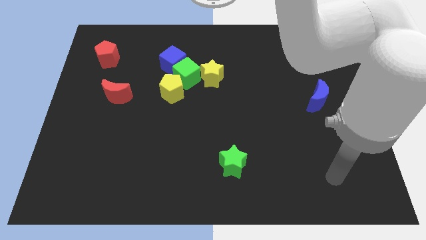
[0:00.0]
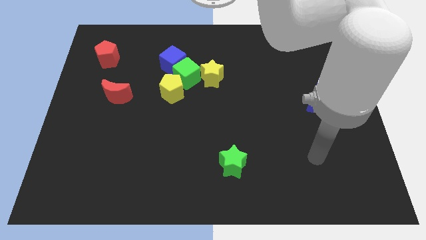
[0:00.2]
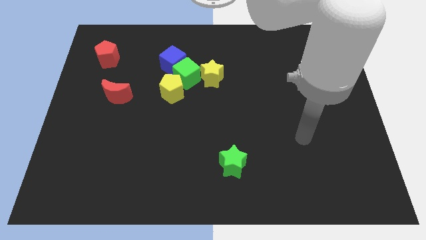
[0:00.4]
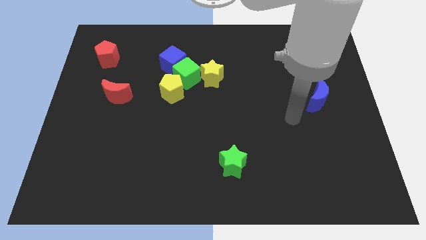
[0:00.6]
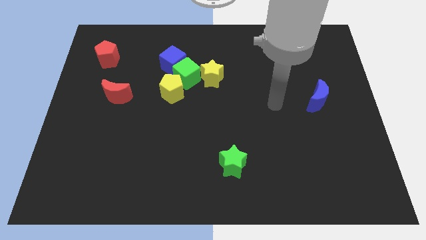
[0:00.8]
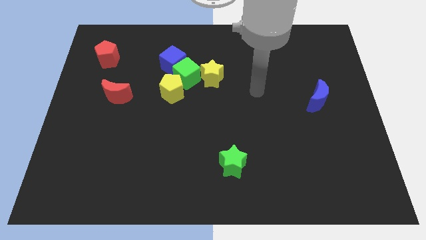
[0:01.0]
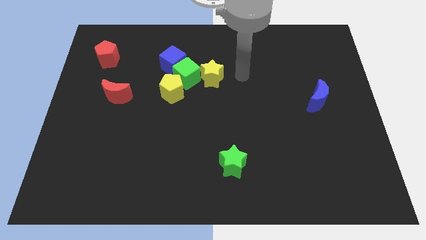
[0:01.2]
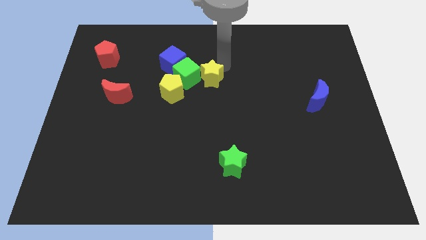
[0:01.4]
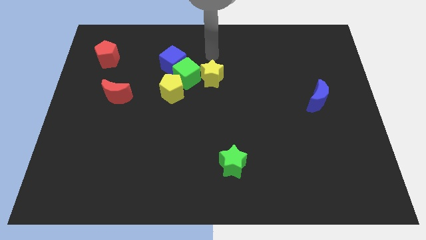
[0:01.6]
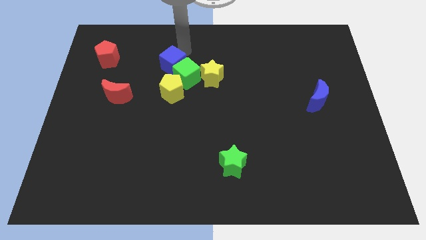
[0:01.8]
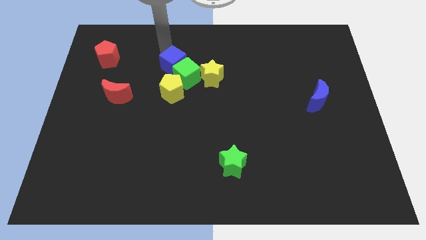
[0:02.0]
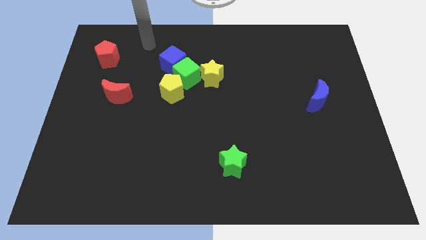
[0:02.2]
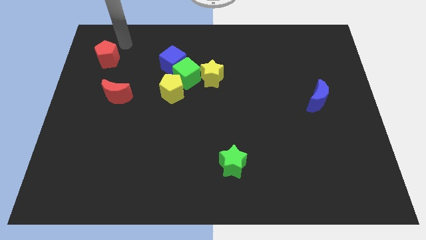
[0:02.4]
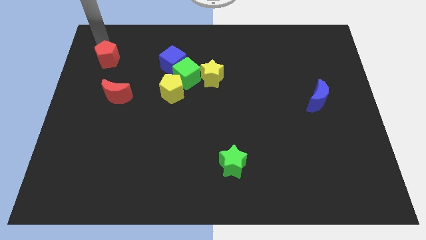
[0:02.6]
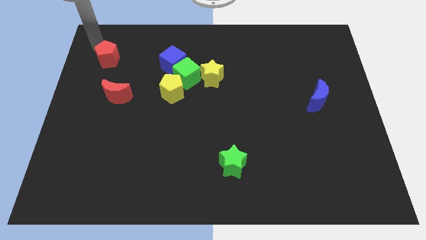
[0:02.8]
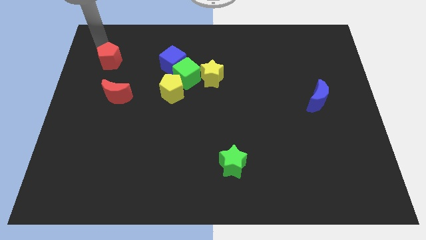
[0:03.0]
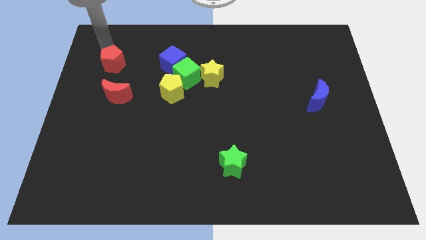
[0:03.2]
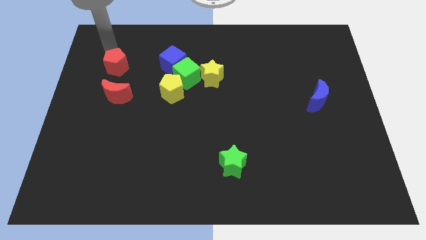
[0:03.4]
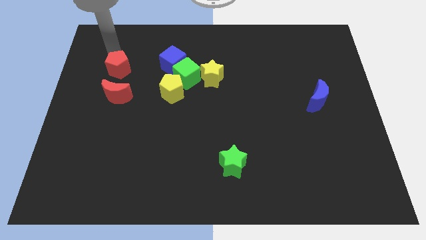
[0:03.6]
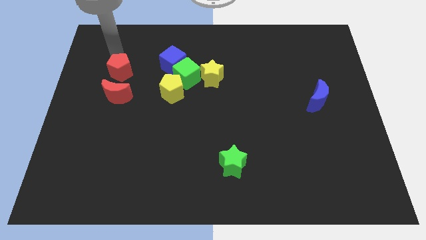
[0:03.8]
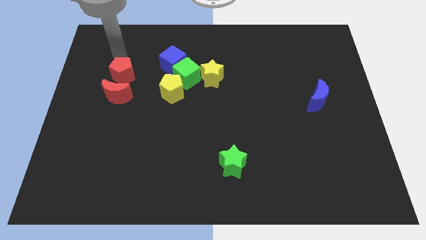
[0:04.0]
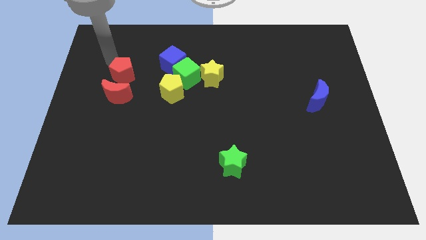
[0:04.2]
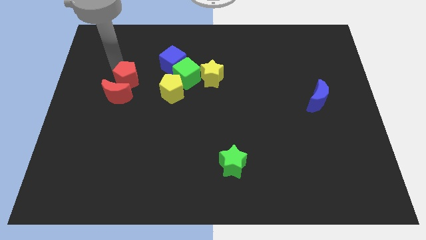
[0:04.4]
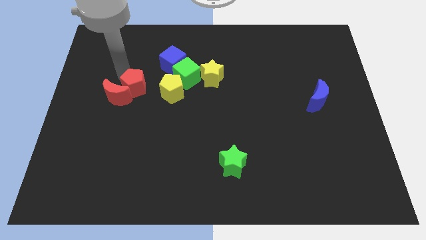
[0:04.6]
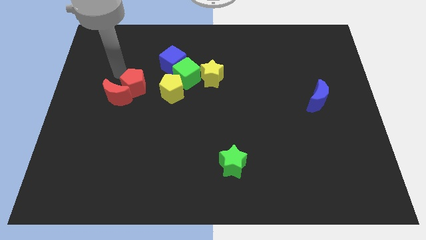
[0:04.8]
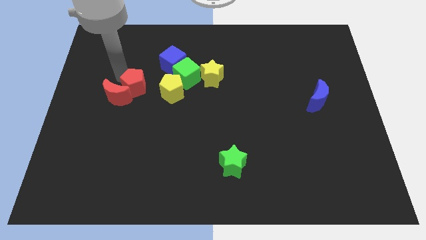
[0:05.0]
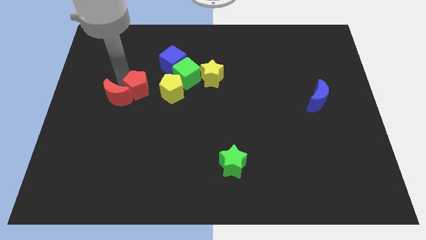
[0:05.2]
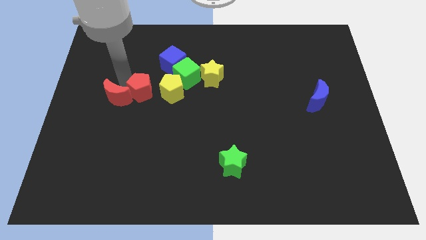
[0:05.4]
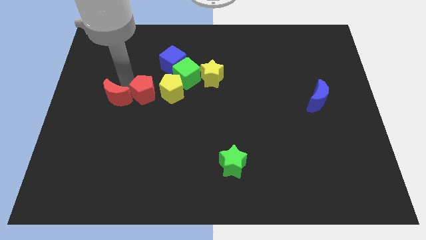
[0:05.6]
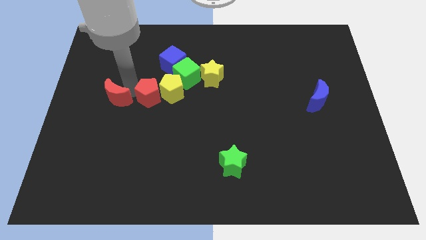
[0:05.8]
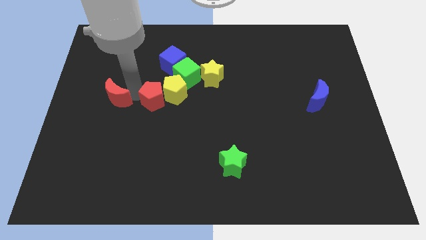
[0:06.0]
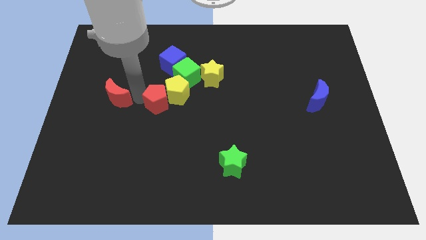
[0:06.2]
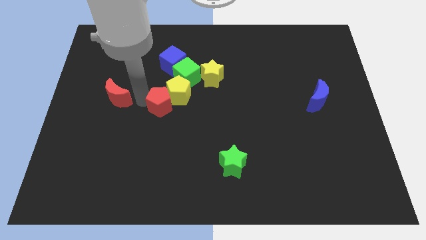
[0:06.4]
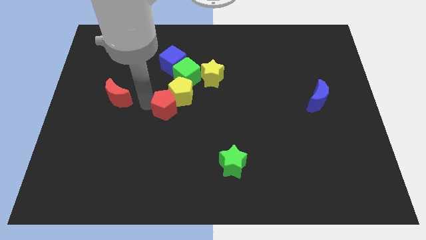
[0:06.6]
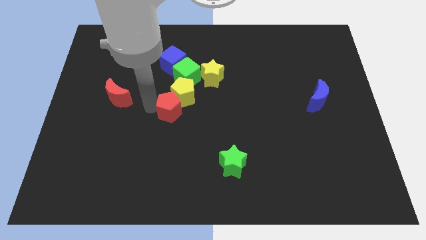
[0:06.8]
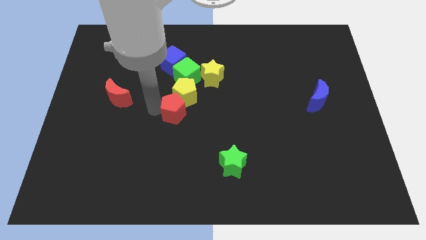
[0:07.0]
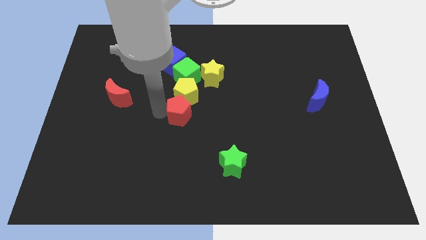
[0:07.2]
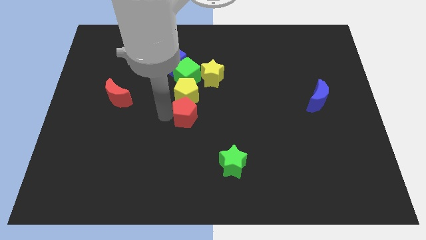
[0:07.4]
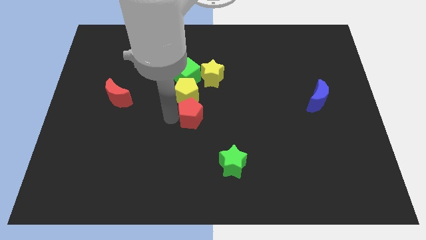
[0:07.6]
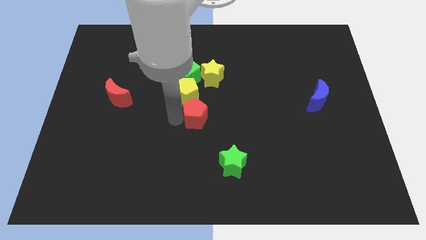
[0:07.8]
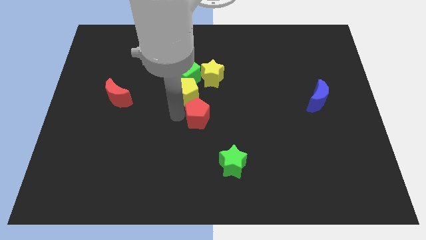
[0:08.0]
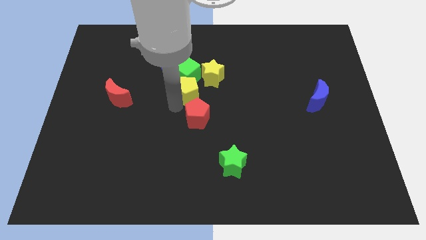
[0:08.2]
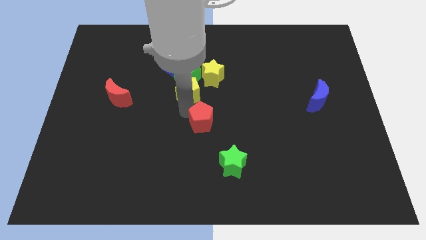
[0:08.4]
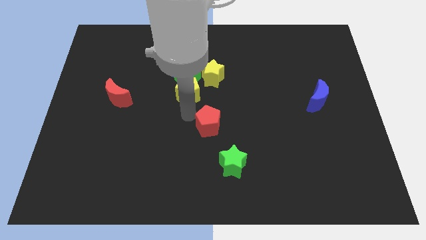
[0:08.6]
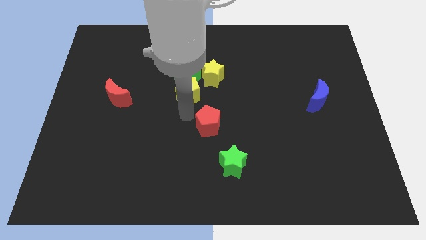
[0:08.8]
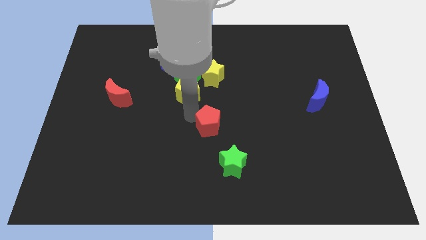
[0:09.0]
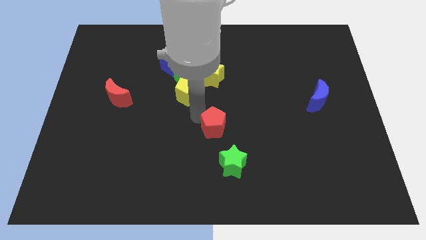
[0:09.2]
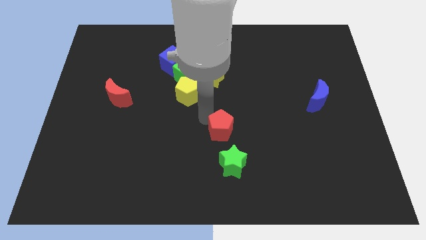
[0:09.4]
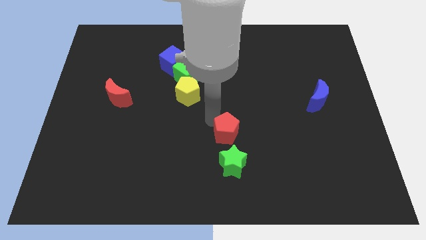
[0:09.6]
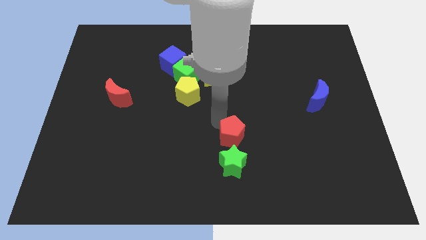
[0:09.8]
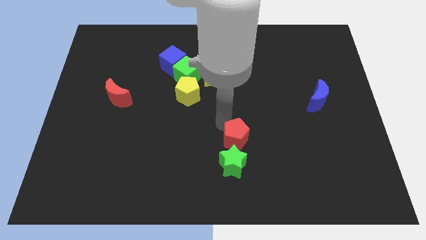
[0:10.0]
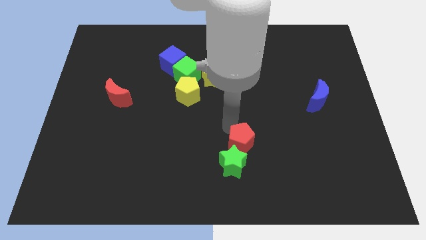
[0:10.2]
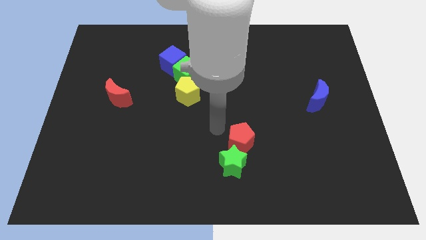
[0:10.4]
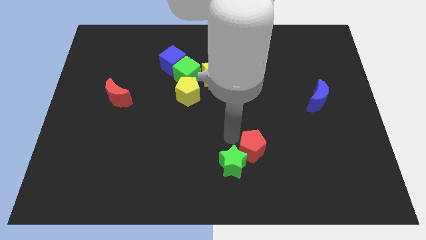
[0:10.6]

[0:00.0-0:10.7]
slide the red pentagon to the right side of the green star

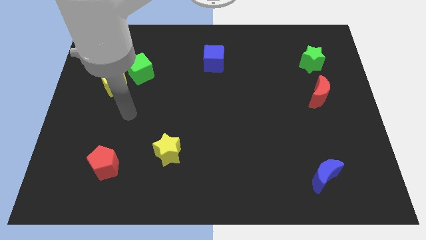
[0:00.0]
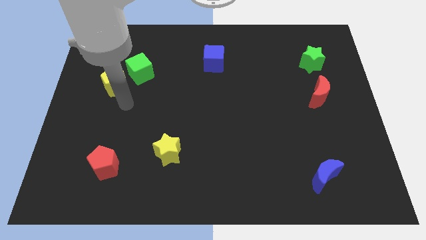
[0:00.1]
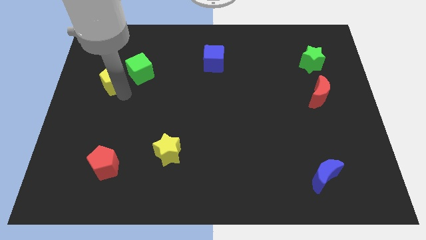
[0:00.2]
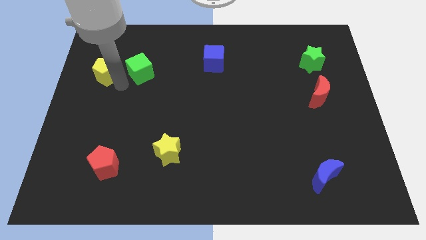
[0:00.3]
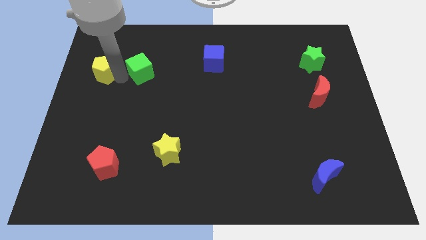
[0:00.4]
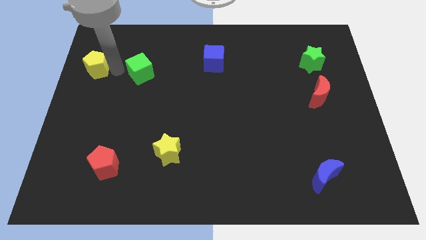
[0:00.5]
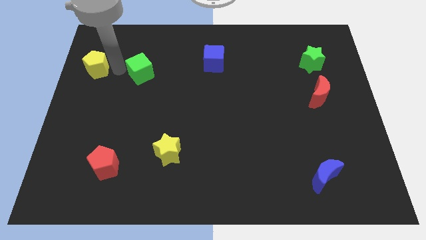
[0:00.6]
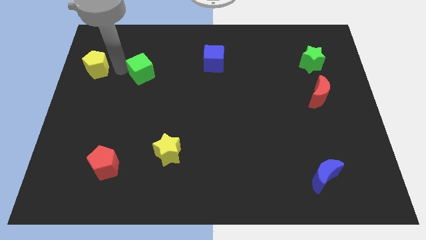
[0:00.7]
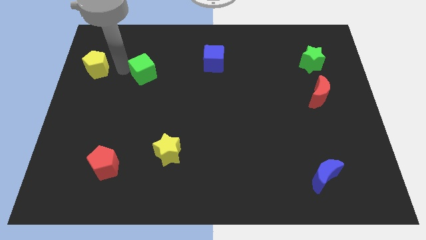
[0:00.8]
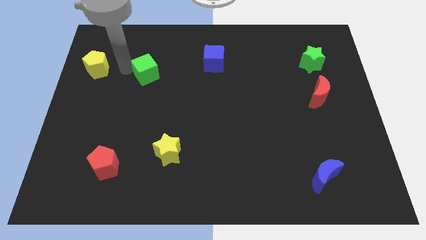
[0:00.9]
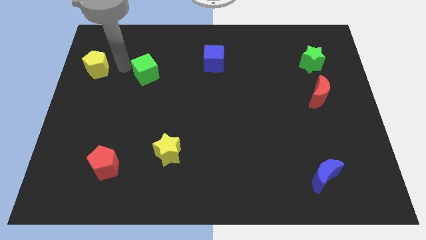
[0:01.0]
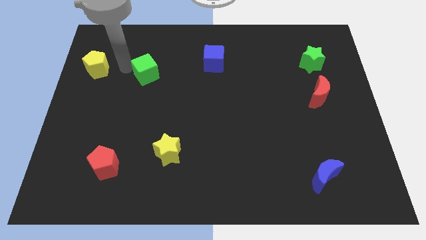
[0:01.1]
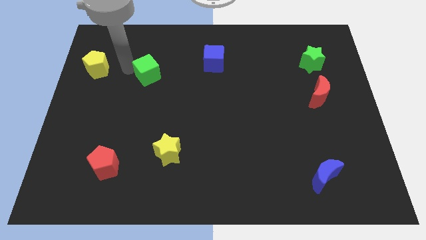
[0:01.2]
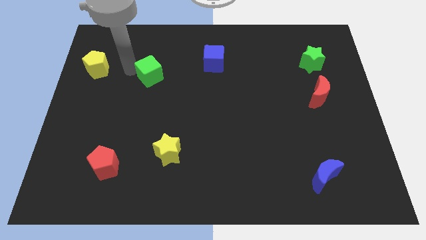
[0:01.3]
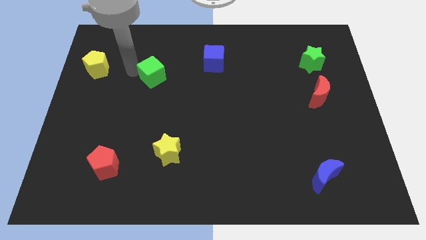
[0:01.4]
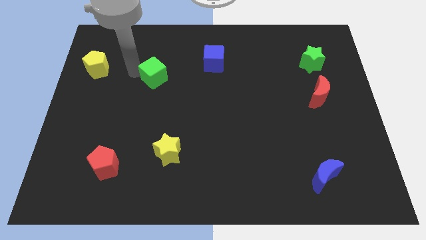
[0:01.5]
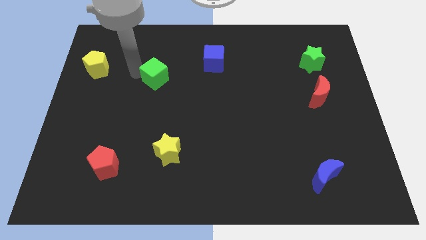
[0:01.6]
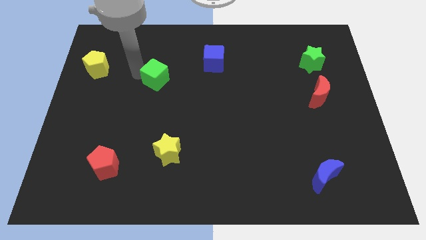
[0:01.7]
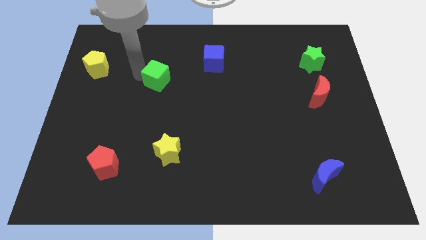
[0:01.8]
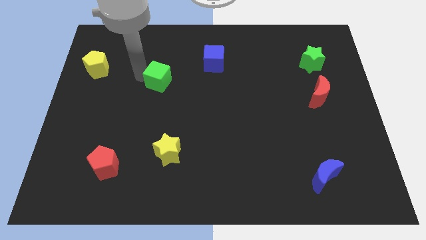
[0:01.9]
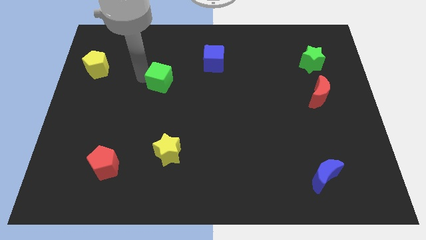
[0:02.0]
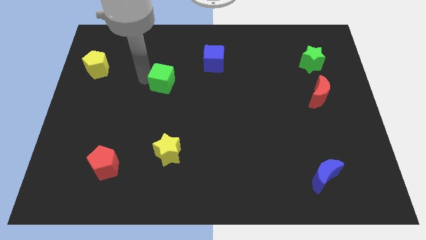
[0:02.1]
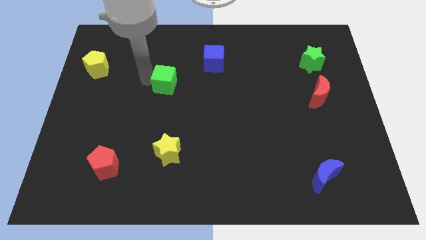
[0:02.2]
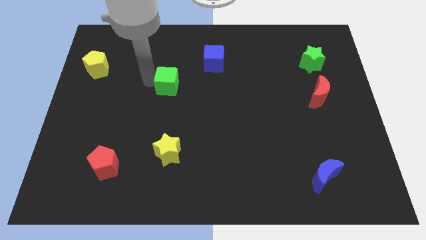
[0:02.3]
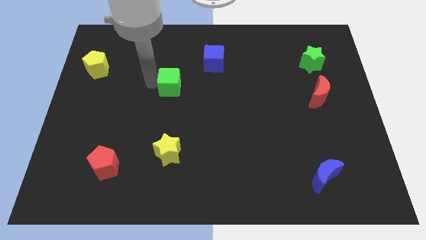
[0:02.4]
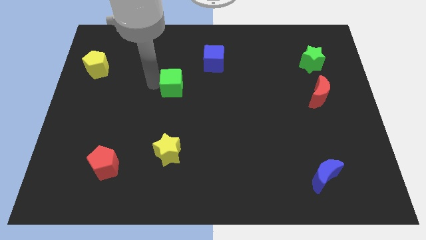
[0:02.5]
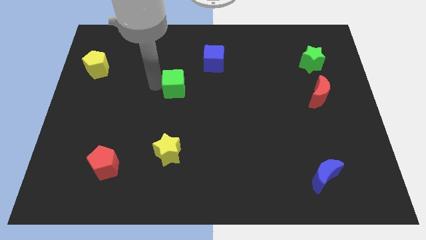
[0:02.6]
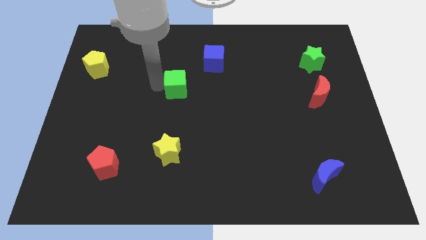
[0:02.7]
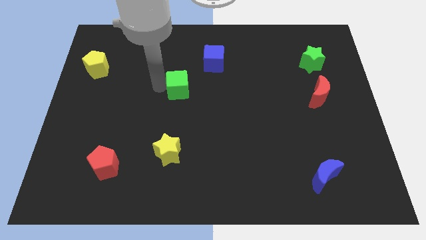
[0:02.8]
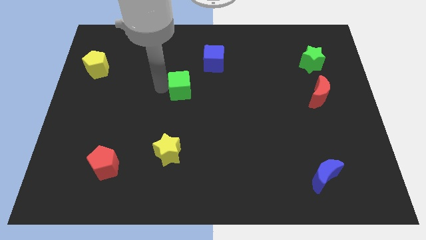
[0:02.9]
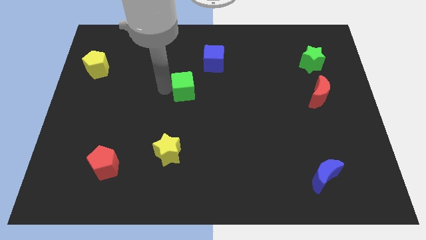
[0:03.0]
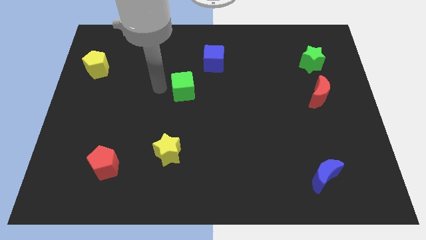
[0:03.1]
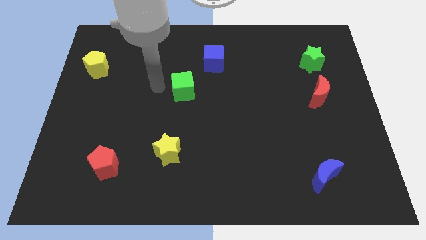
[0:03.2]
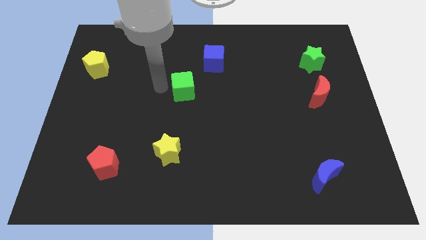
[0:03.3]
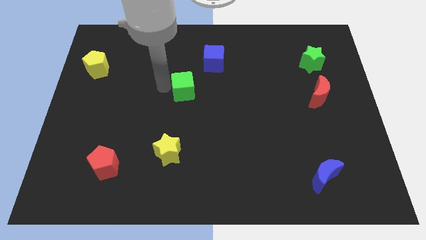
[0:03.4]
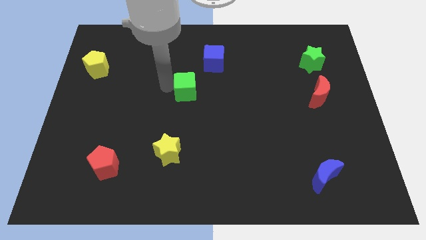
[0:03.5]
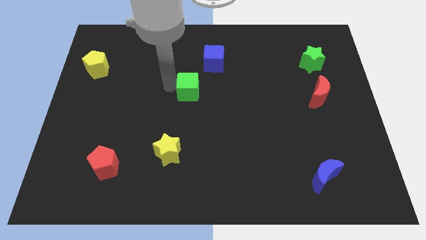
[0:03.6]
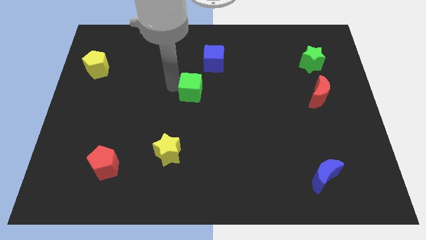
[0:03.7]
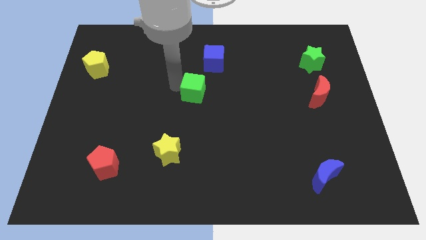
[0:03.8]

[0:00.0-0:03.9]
move the green cube to the bottom side of the blue cube
